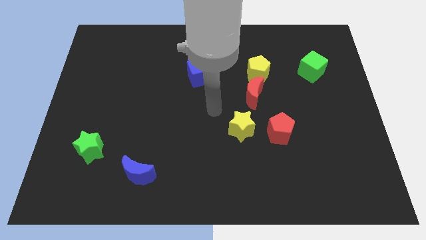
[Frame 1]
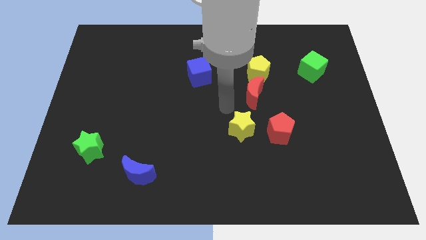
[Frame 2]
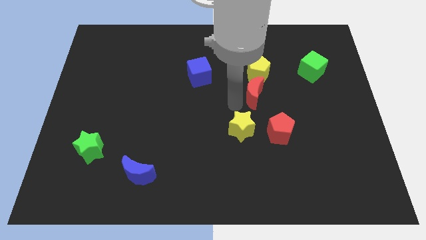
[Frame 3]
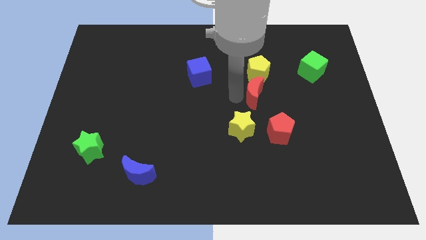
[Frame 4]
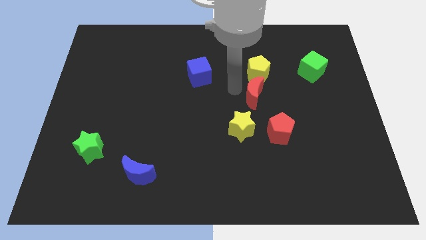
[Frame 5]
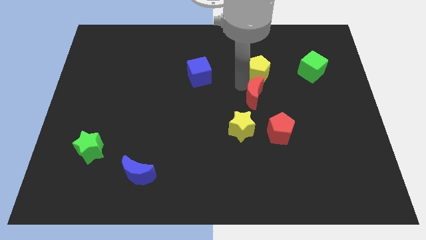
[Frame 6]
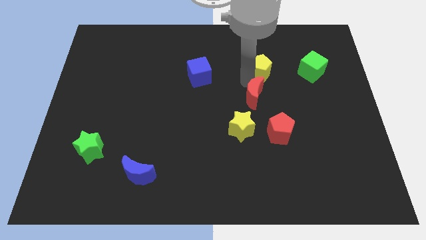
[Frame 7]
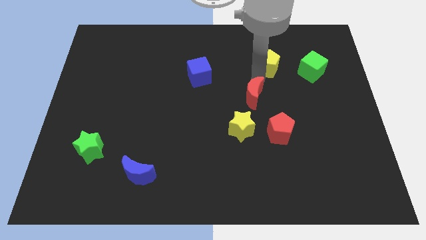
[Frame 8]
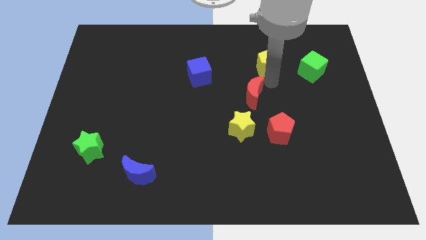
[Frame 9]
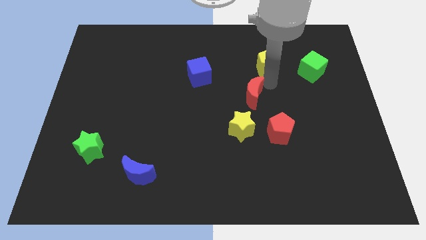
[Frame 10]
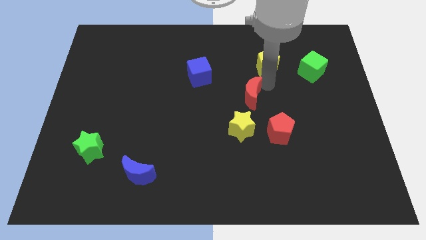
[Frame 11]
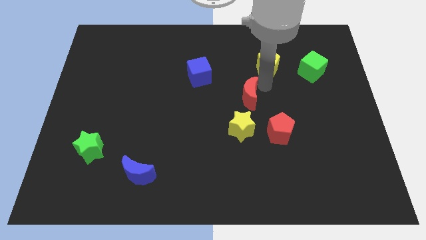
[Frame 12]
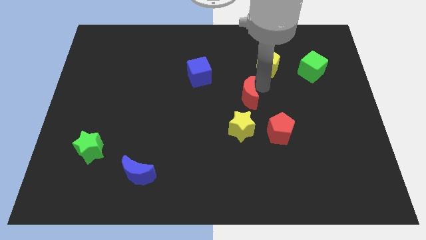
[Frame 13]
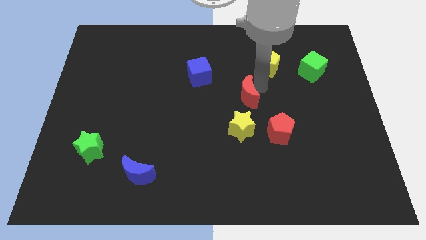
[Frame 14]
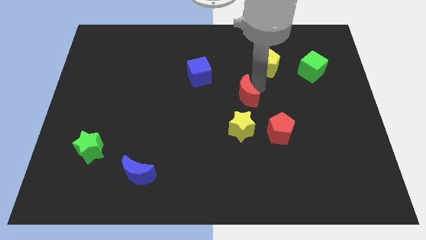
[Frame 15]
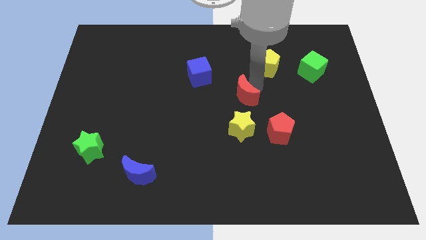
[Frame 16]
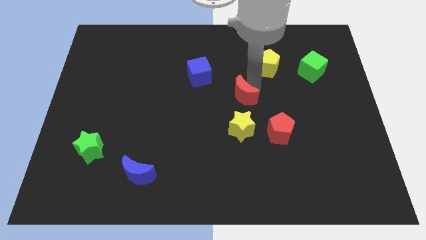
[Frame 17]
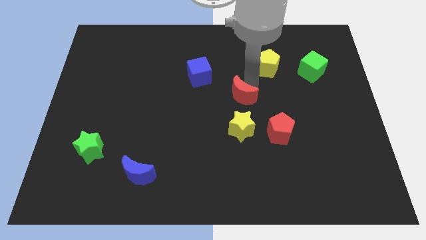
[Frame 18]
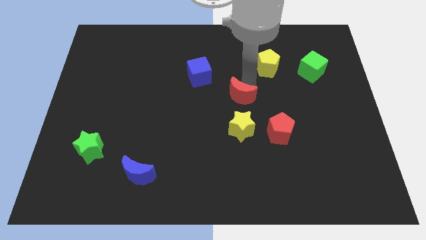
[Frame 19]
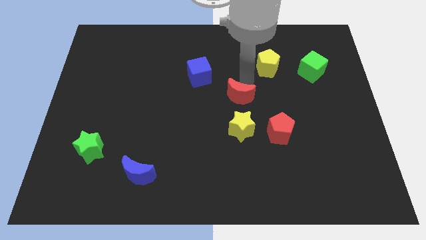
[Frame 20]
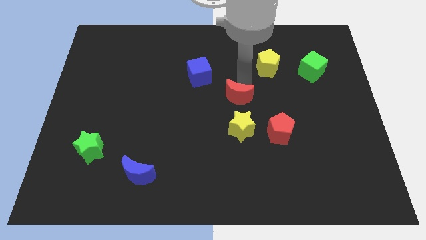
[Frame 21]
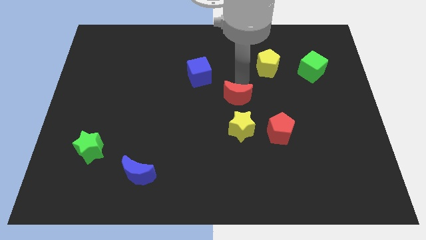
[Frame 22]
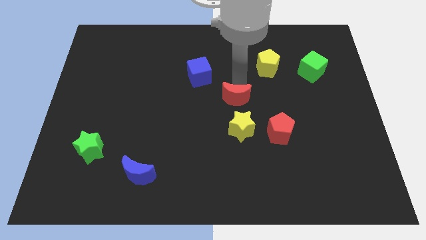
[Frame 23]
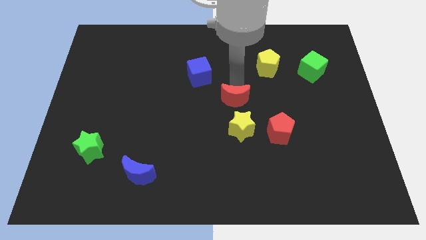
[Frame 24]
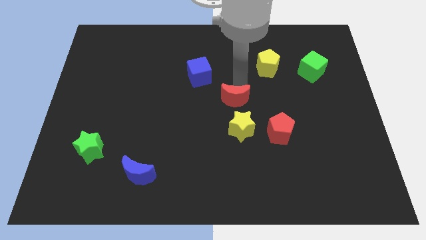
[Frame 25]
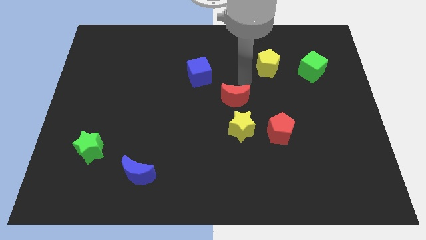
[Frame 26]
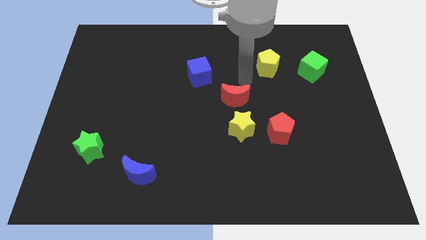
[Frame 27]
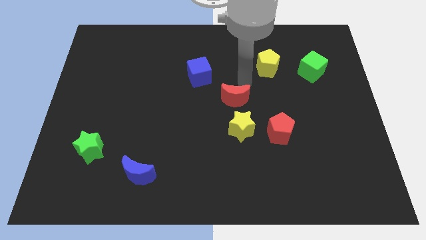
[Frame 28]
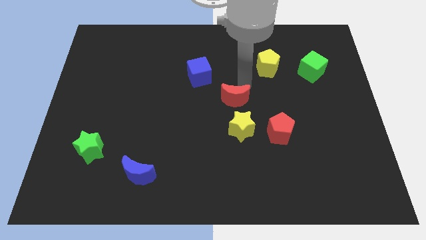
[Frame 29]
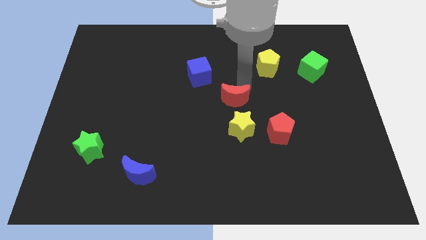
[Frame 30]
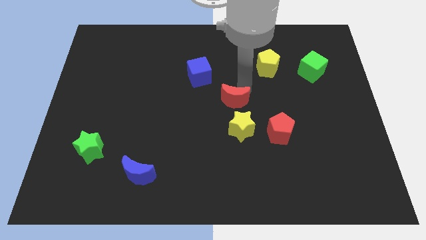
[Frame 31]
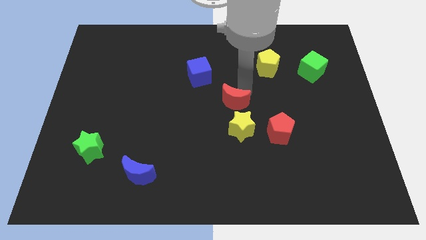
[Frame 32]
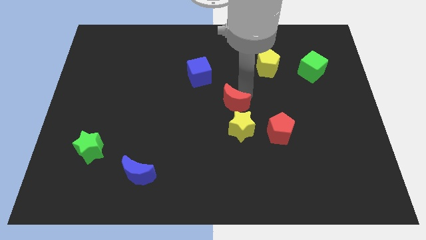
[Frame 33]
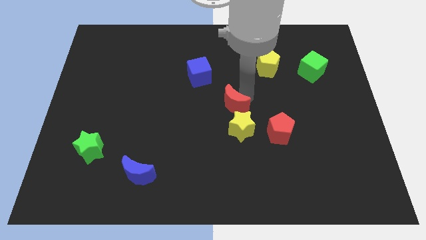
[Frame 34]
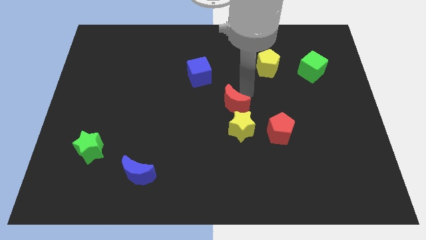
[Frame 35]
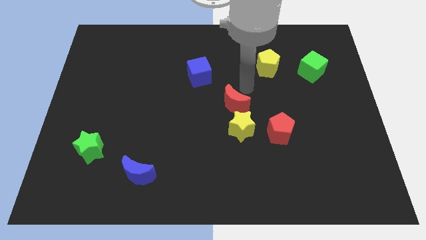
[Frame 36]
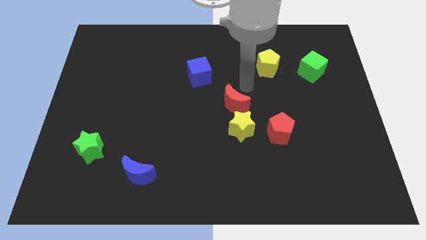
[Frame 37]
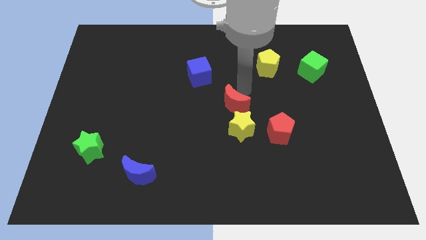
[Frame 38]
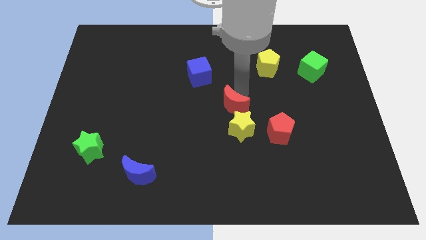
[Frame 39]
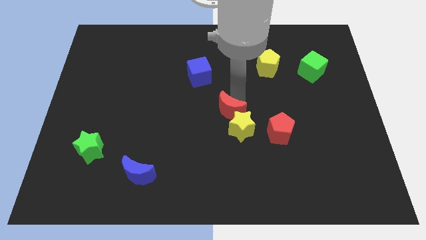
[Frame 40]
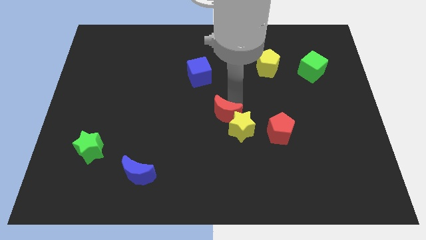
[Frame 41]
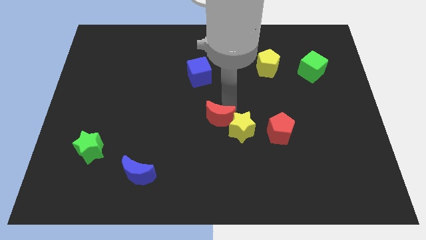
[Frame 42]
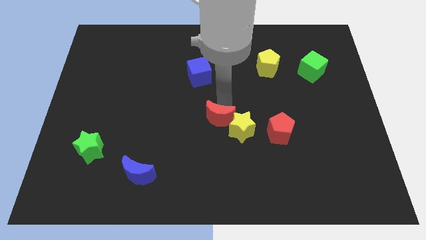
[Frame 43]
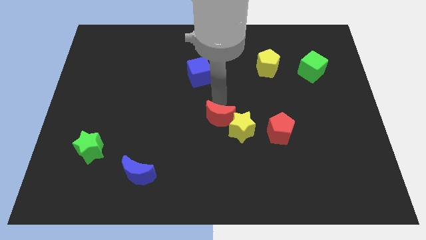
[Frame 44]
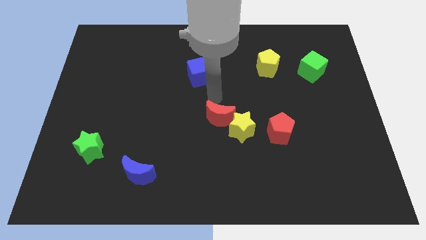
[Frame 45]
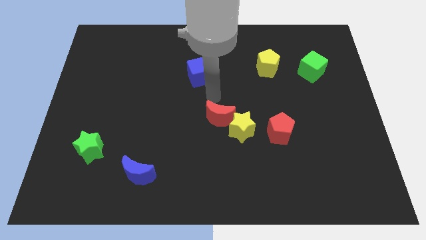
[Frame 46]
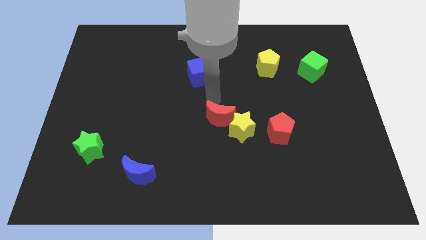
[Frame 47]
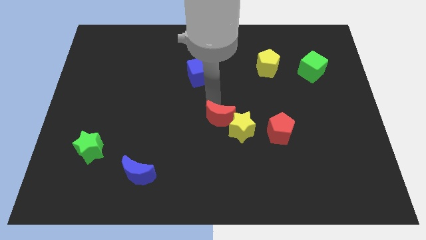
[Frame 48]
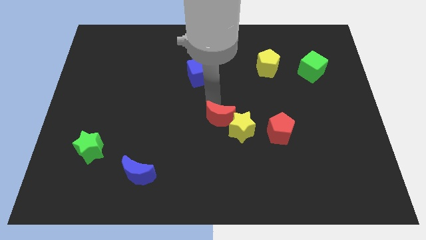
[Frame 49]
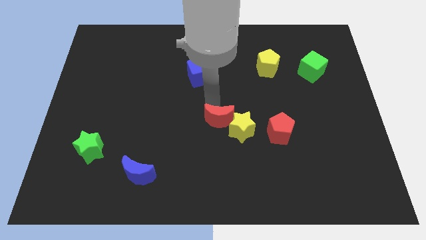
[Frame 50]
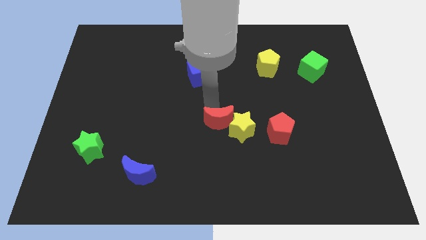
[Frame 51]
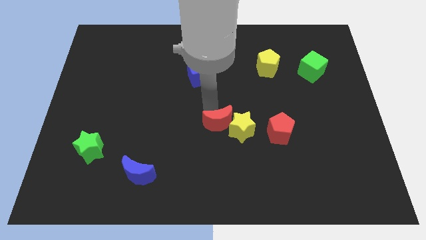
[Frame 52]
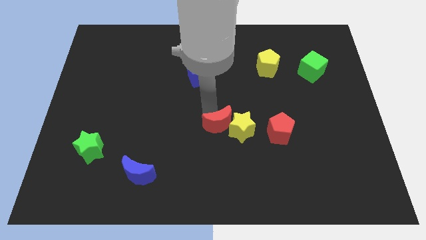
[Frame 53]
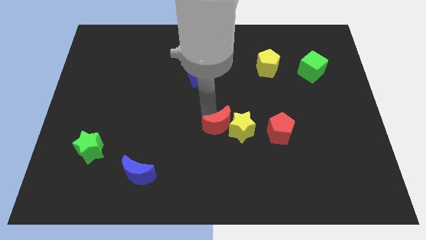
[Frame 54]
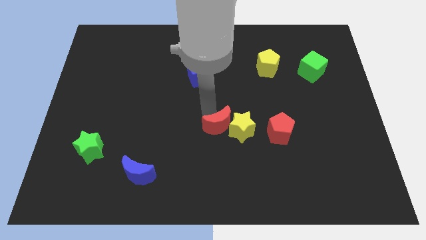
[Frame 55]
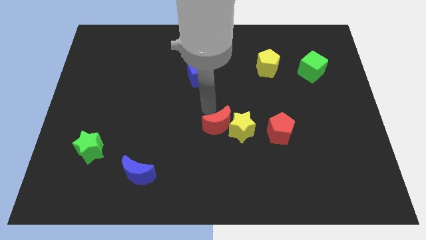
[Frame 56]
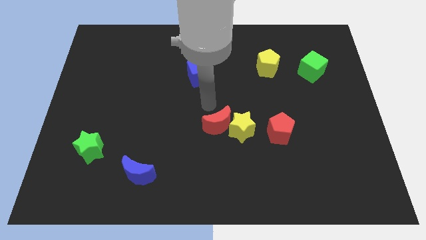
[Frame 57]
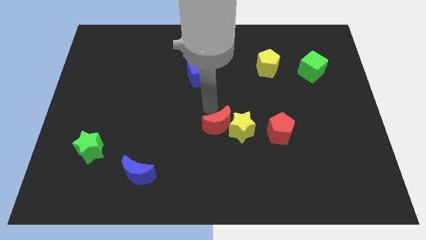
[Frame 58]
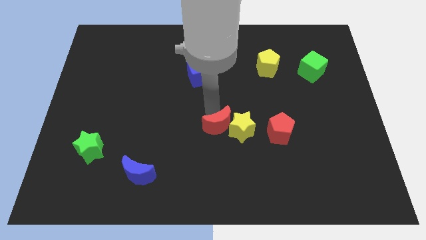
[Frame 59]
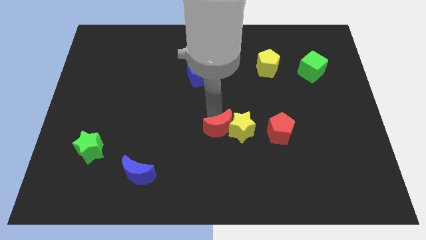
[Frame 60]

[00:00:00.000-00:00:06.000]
slightly move the red moon downwards

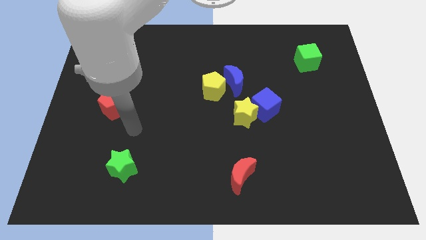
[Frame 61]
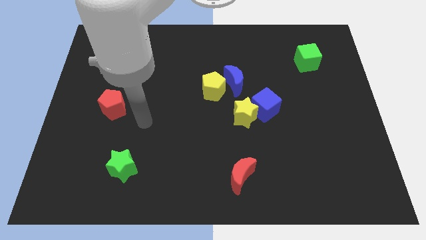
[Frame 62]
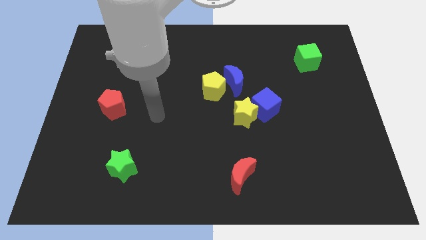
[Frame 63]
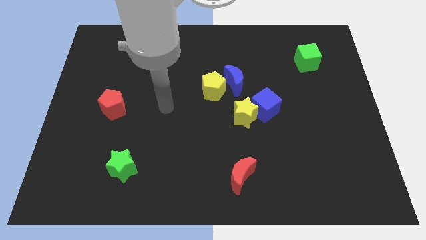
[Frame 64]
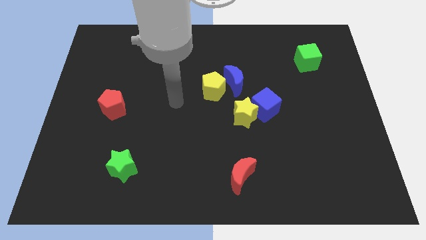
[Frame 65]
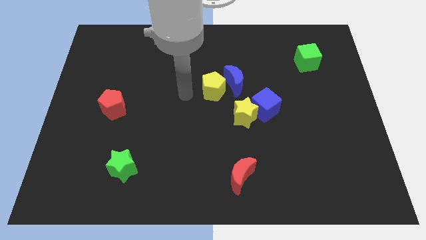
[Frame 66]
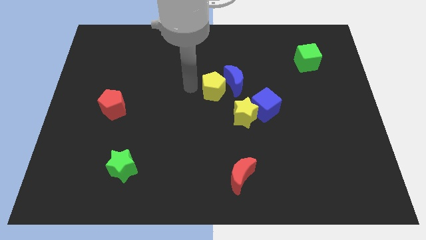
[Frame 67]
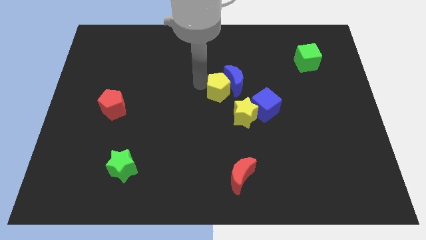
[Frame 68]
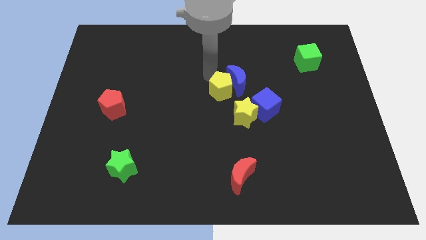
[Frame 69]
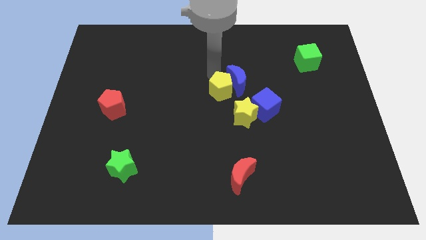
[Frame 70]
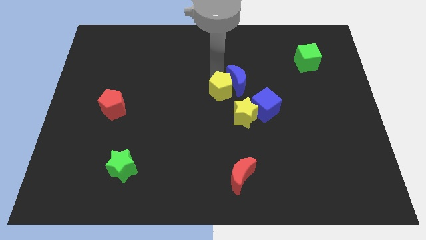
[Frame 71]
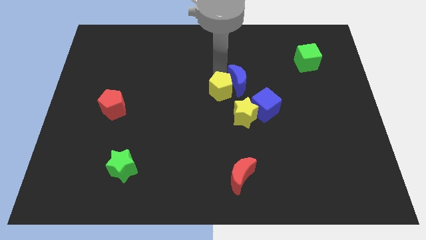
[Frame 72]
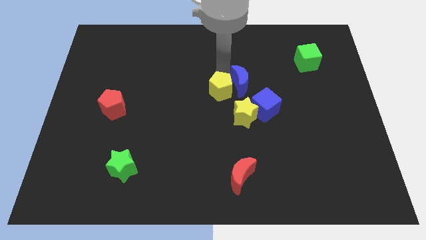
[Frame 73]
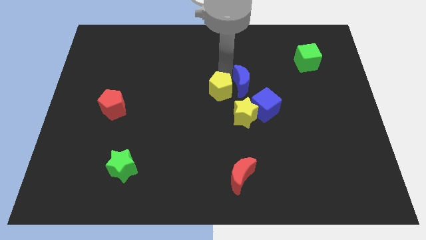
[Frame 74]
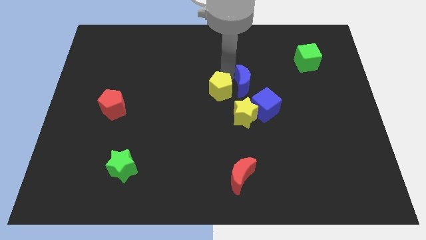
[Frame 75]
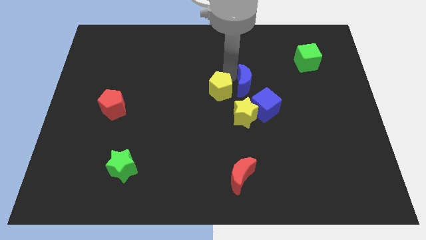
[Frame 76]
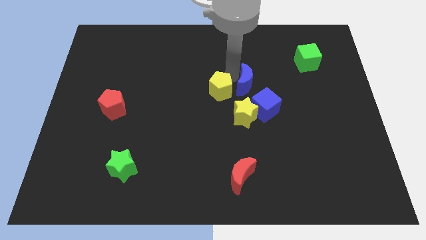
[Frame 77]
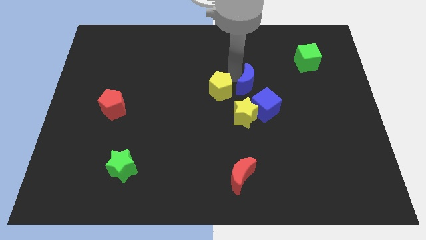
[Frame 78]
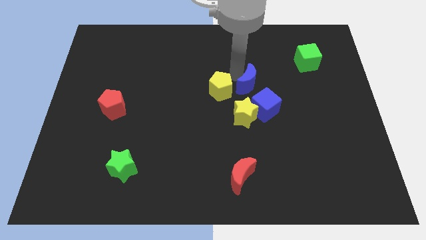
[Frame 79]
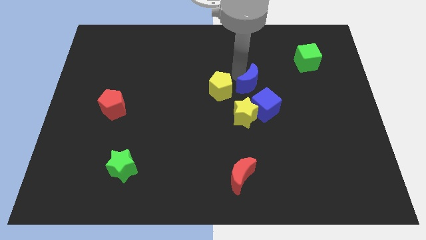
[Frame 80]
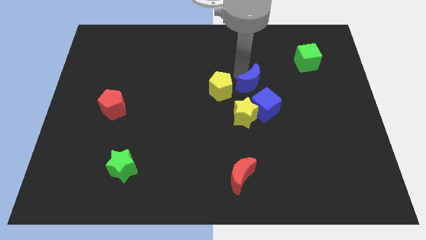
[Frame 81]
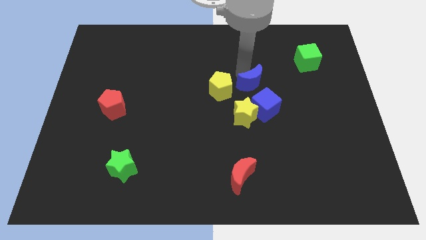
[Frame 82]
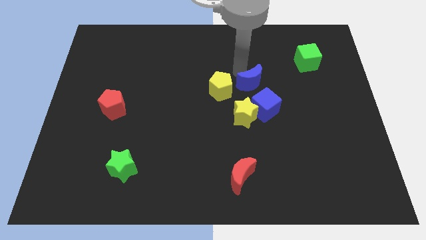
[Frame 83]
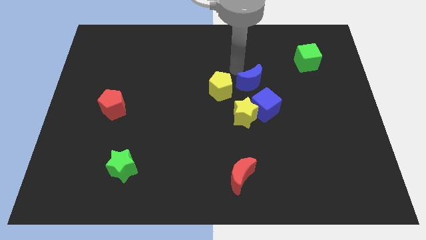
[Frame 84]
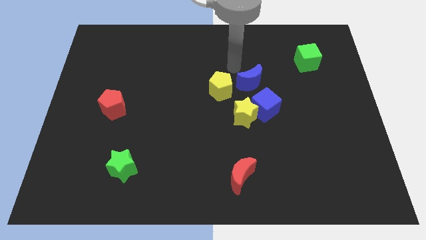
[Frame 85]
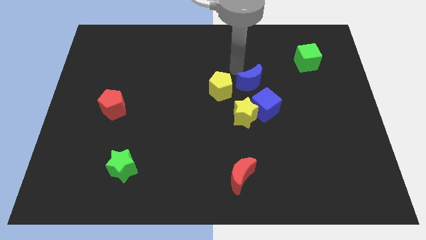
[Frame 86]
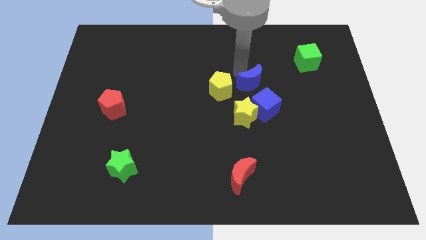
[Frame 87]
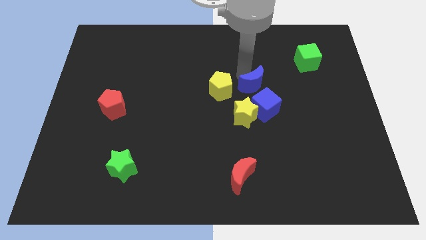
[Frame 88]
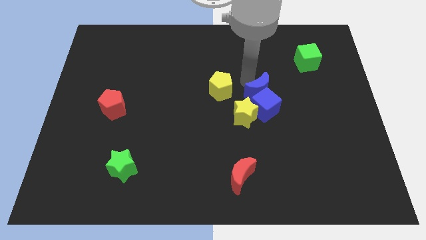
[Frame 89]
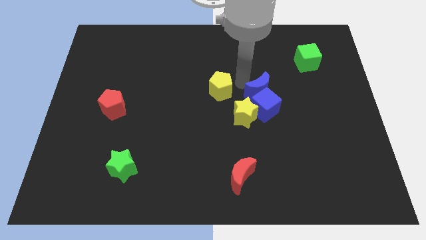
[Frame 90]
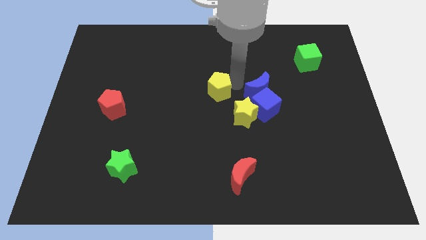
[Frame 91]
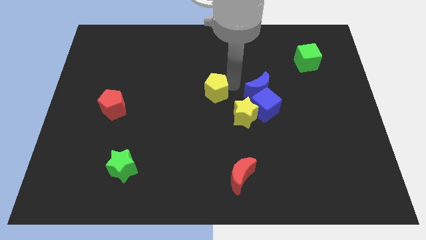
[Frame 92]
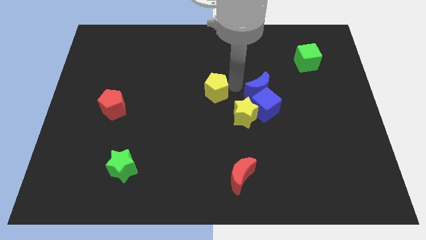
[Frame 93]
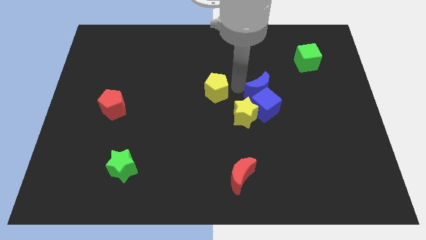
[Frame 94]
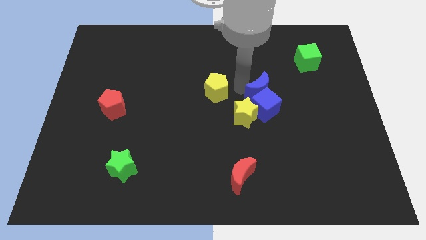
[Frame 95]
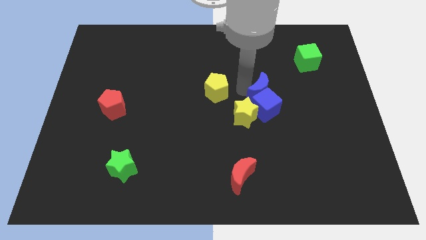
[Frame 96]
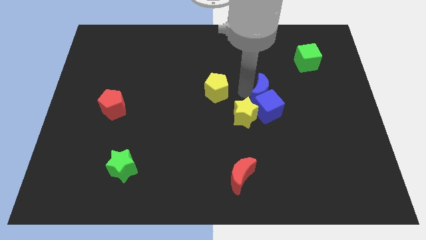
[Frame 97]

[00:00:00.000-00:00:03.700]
push the blue moon down and right a little
